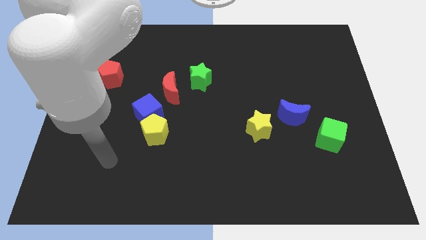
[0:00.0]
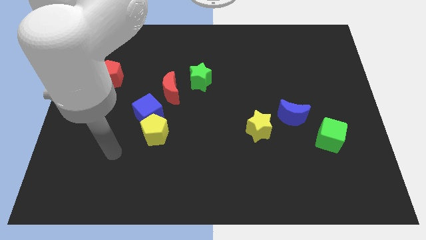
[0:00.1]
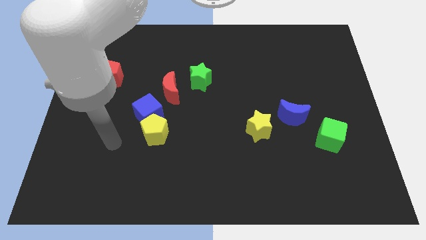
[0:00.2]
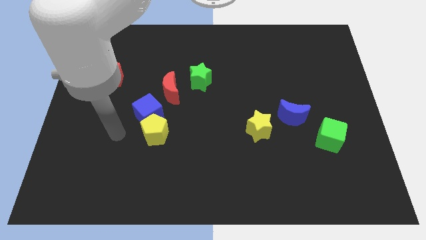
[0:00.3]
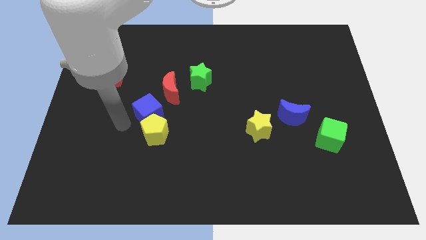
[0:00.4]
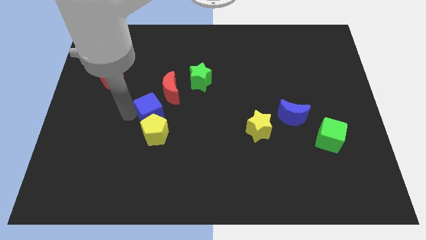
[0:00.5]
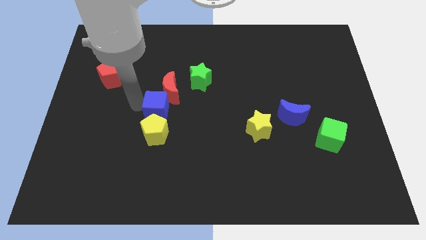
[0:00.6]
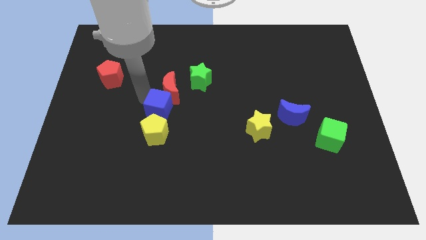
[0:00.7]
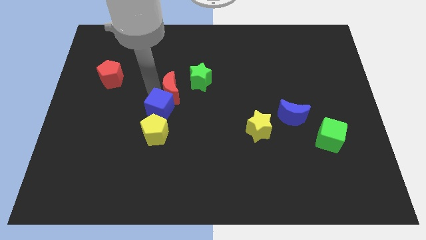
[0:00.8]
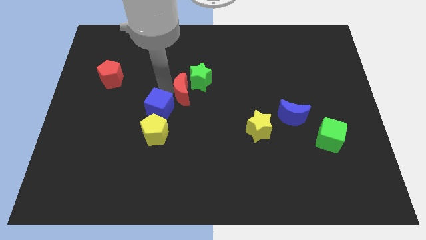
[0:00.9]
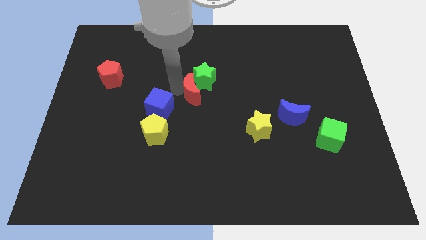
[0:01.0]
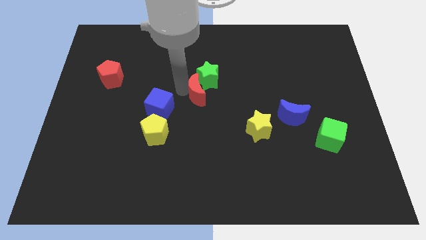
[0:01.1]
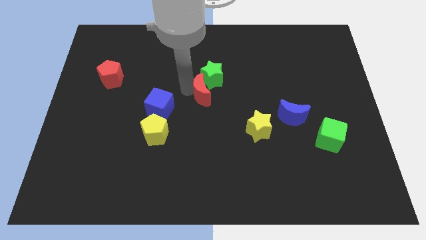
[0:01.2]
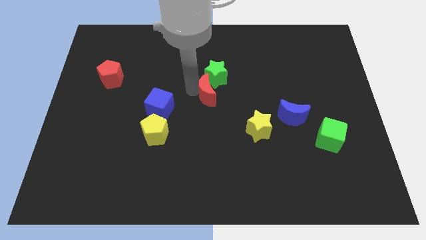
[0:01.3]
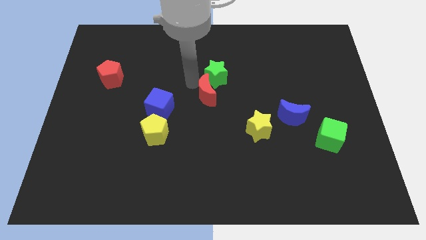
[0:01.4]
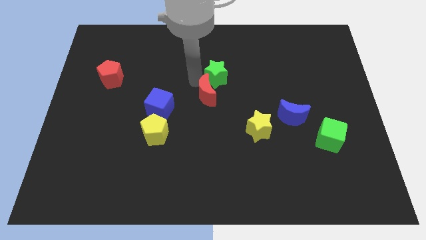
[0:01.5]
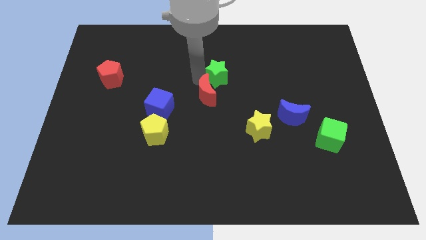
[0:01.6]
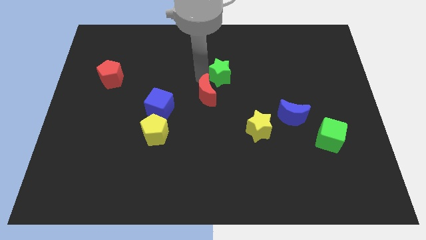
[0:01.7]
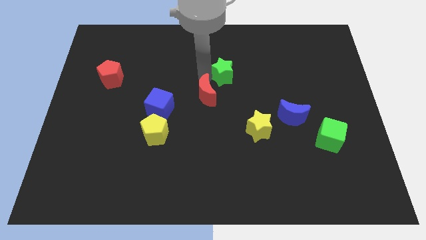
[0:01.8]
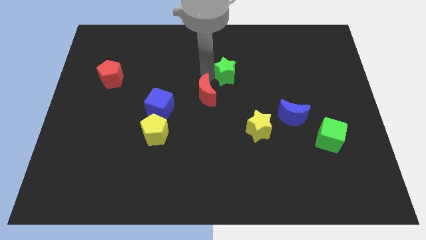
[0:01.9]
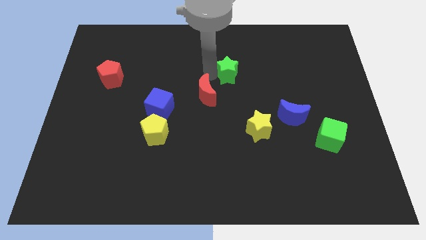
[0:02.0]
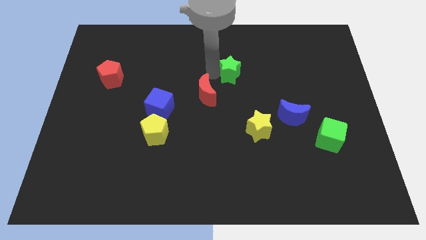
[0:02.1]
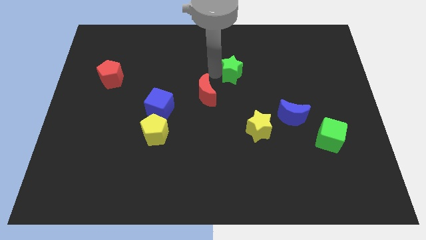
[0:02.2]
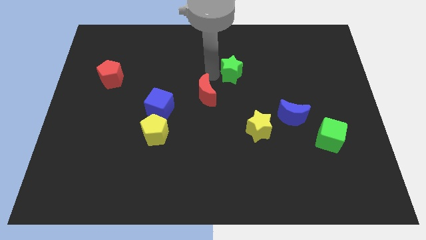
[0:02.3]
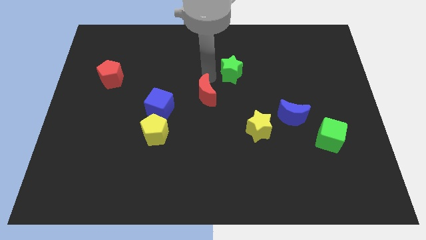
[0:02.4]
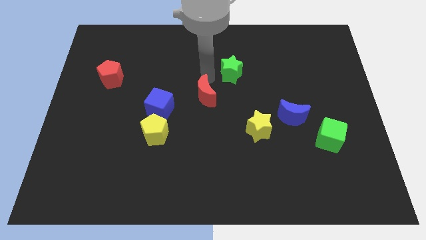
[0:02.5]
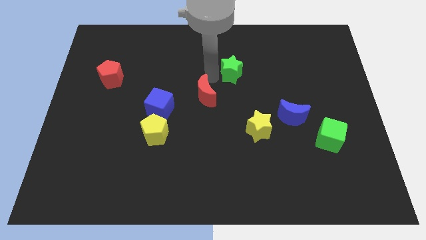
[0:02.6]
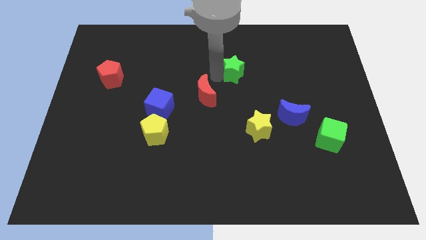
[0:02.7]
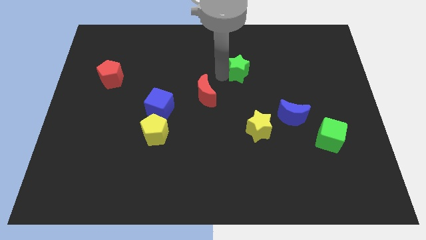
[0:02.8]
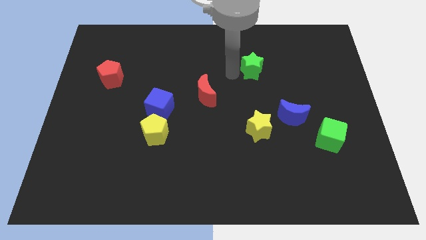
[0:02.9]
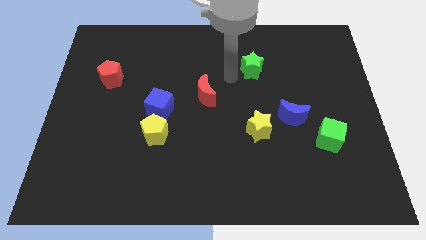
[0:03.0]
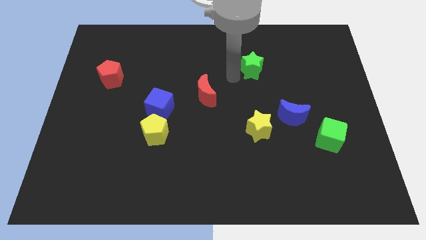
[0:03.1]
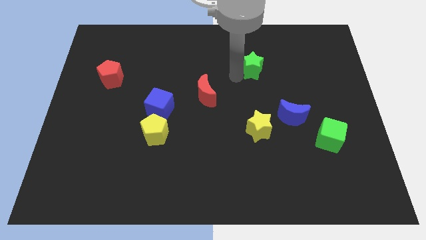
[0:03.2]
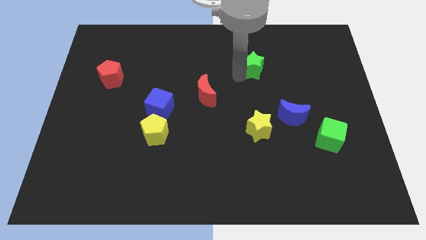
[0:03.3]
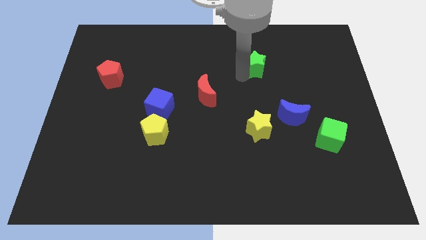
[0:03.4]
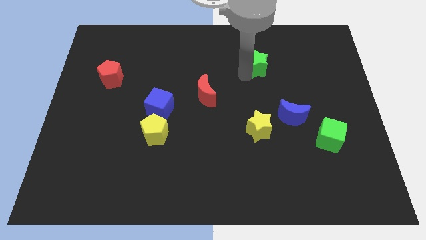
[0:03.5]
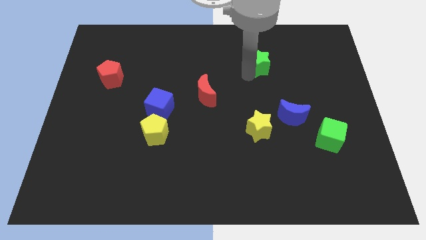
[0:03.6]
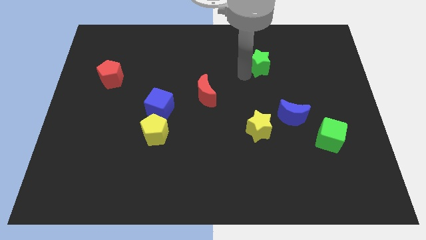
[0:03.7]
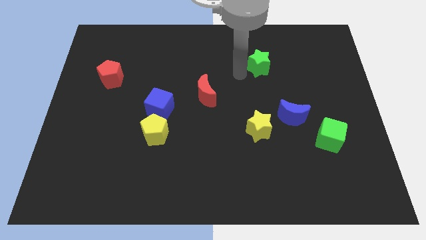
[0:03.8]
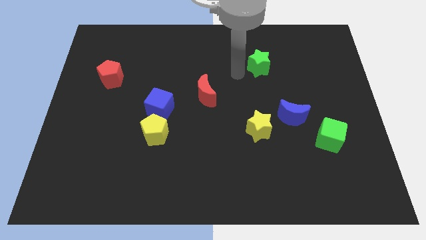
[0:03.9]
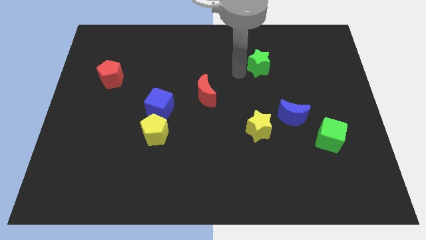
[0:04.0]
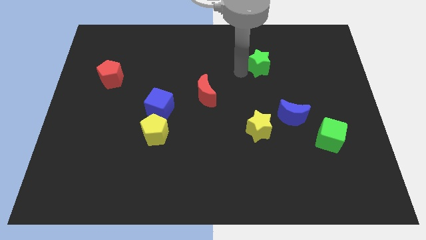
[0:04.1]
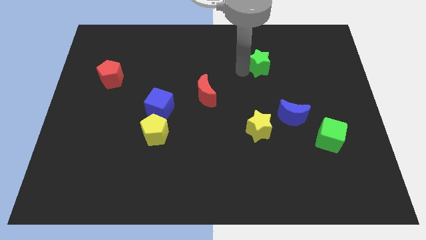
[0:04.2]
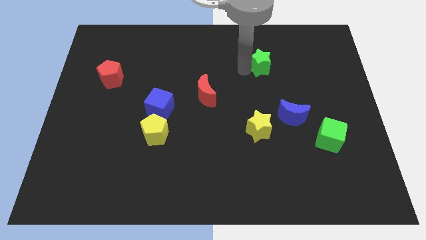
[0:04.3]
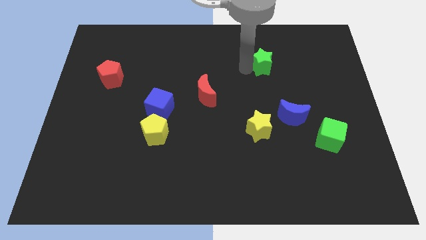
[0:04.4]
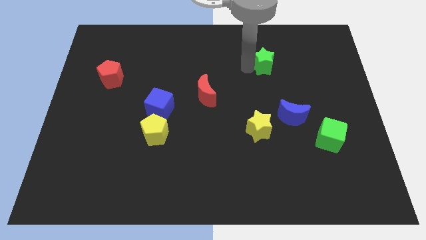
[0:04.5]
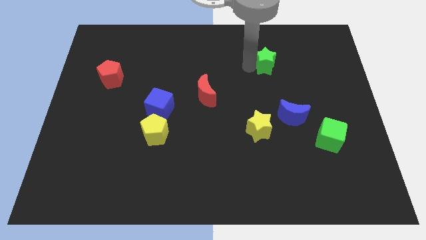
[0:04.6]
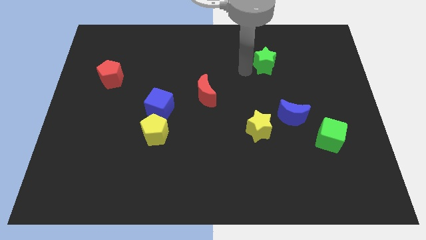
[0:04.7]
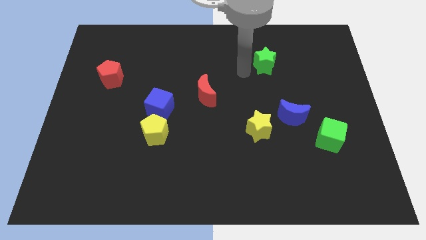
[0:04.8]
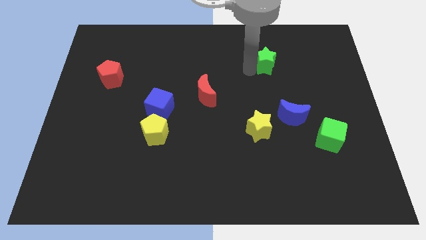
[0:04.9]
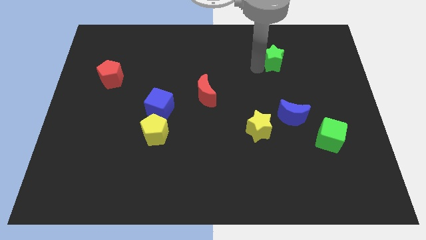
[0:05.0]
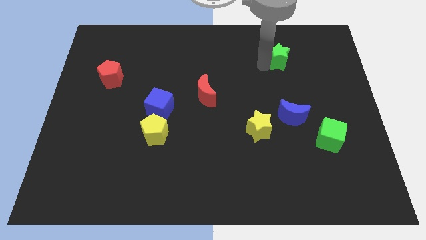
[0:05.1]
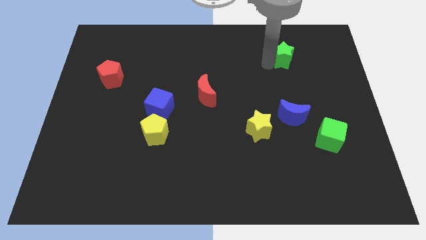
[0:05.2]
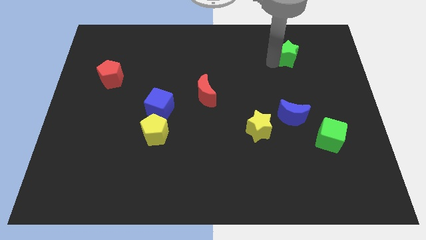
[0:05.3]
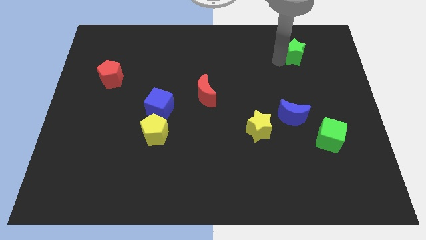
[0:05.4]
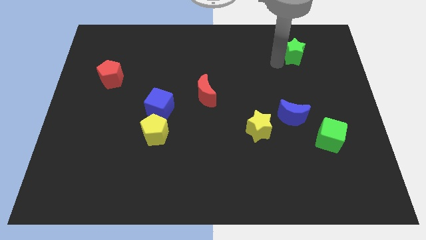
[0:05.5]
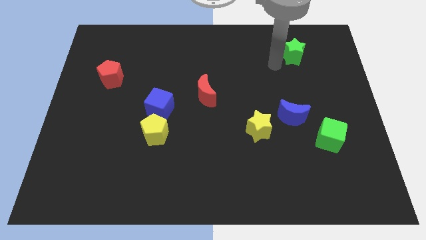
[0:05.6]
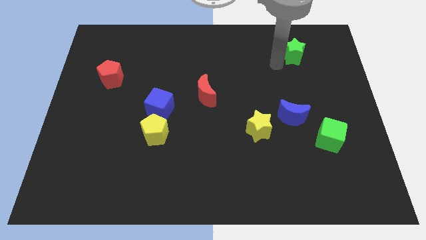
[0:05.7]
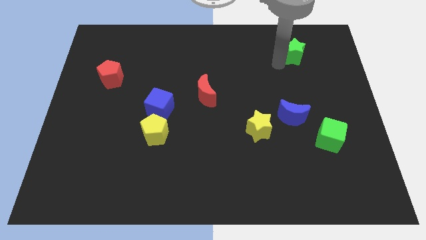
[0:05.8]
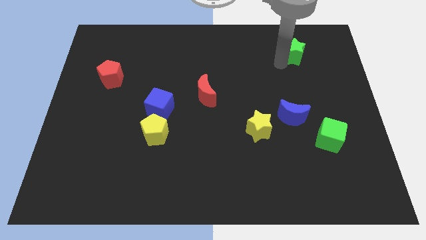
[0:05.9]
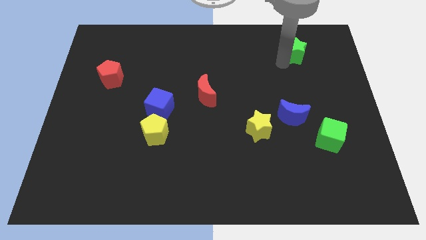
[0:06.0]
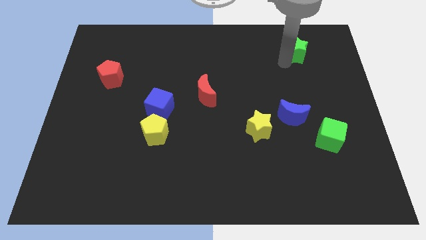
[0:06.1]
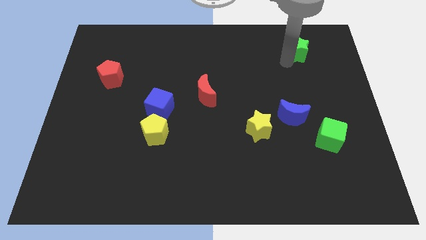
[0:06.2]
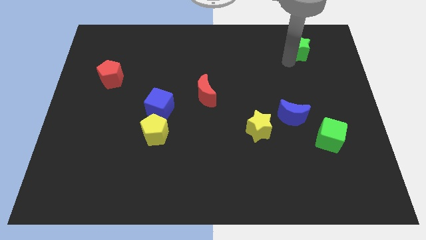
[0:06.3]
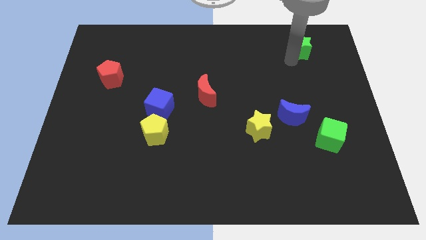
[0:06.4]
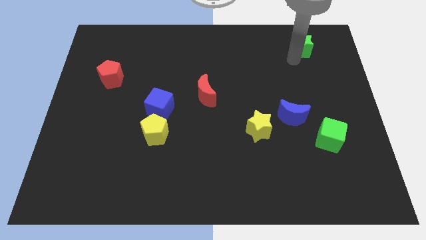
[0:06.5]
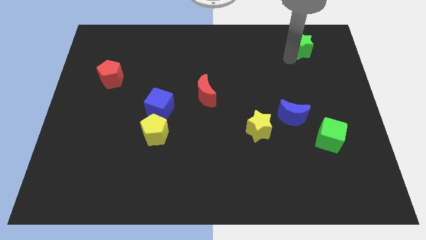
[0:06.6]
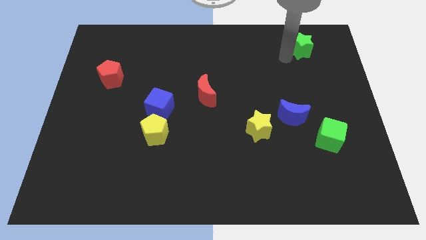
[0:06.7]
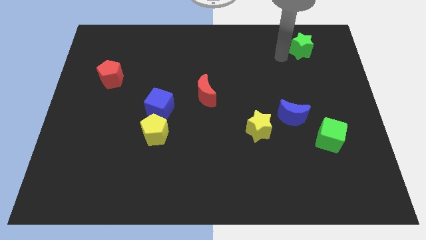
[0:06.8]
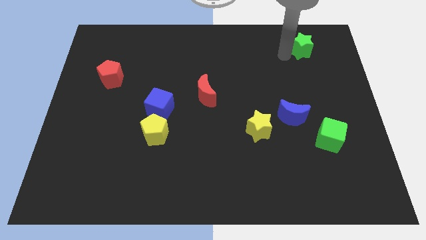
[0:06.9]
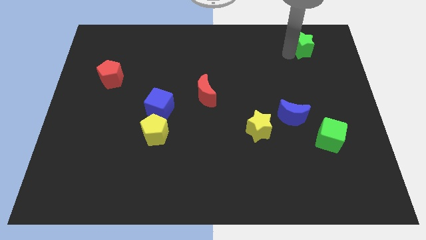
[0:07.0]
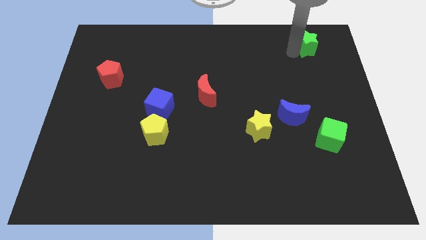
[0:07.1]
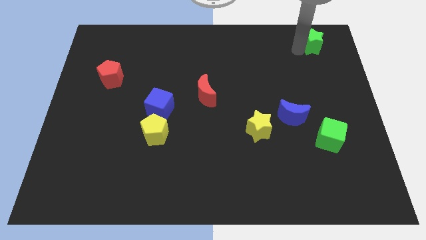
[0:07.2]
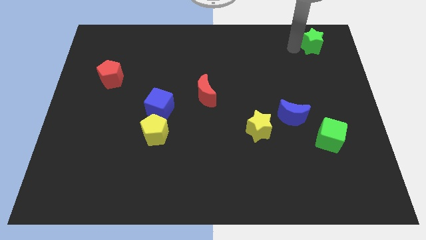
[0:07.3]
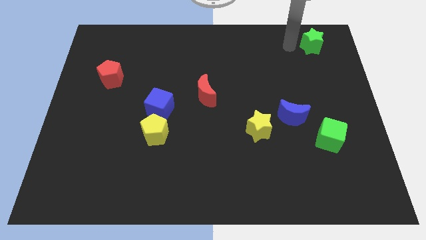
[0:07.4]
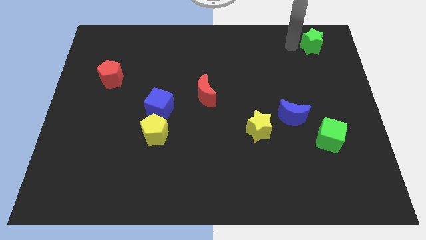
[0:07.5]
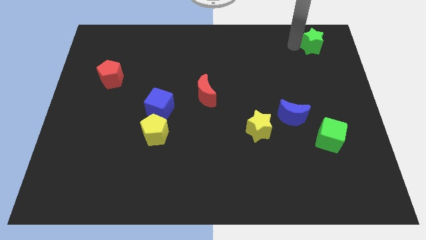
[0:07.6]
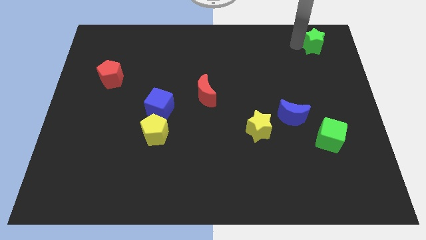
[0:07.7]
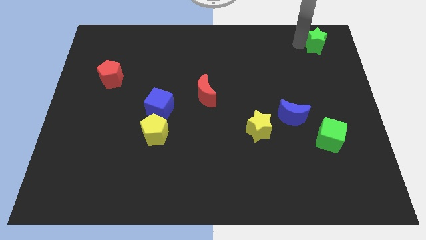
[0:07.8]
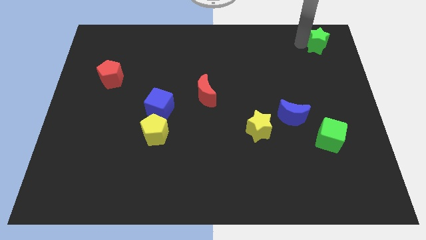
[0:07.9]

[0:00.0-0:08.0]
slide the green star to the top right
